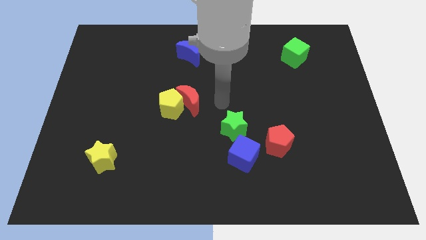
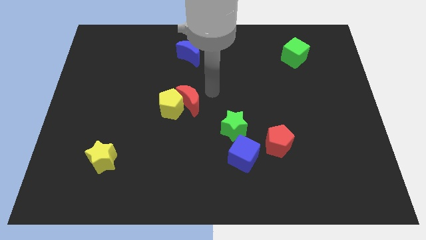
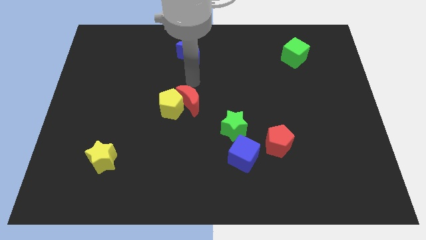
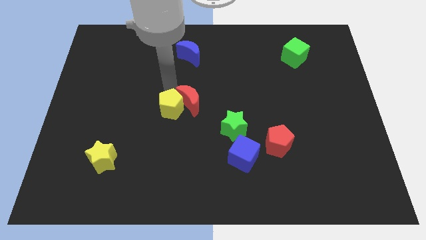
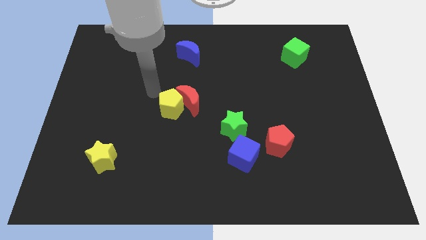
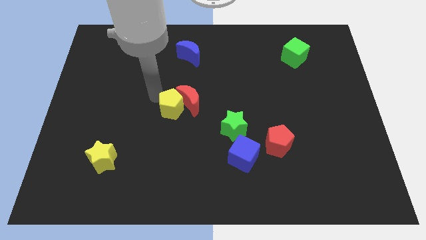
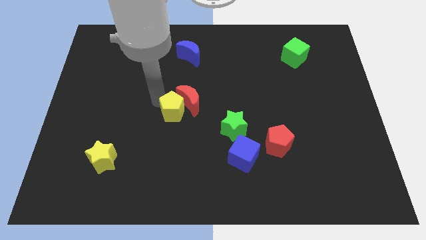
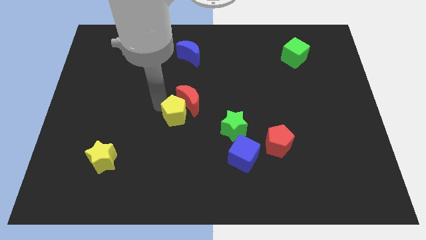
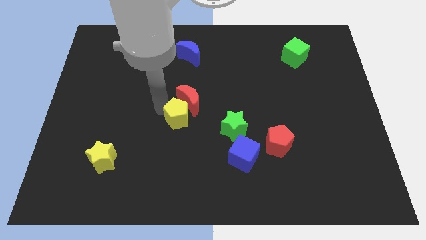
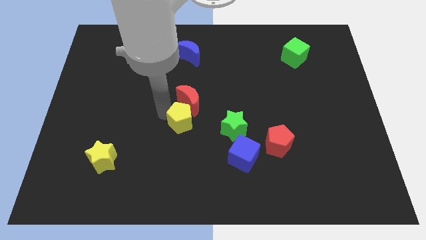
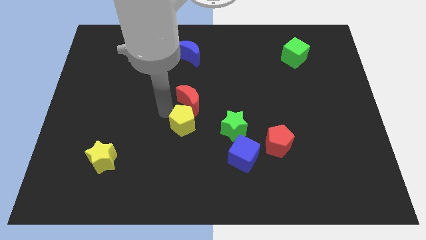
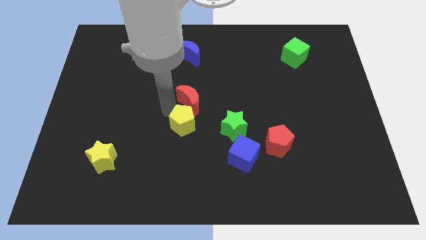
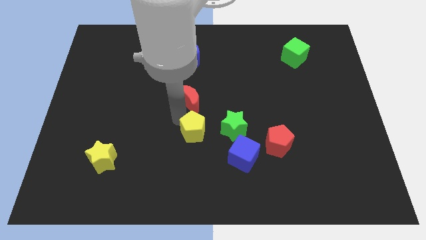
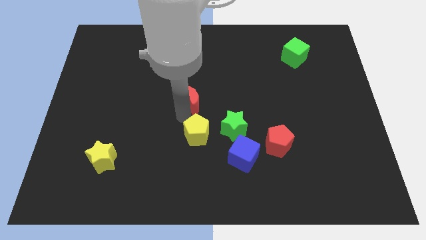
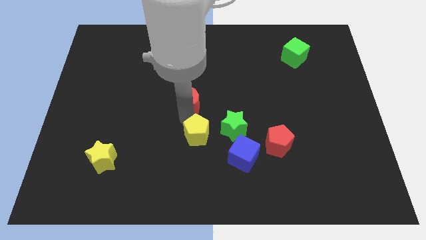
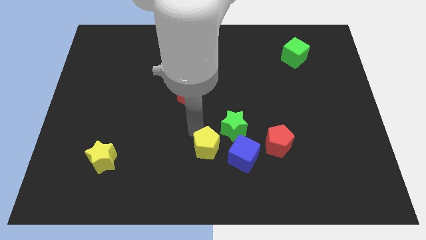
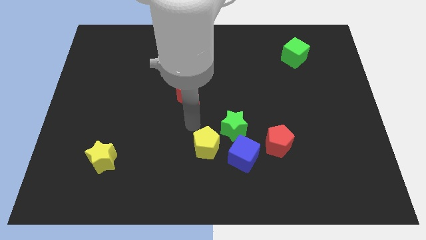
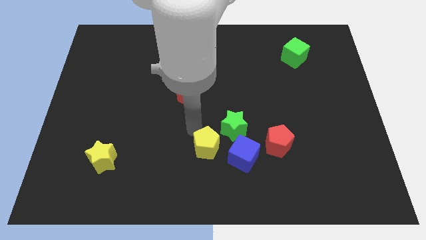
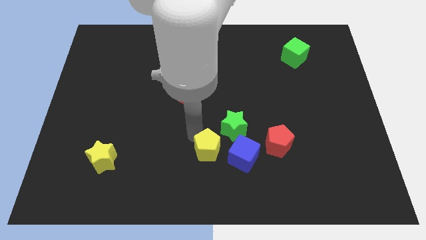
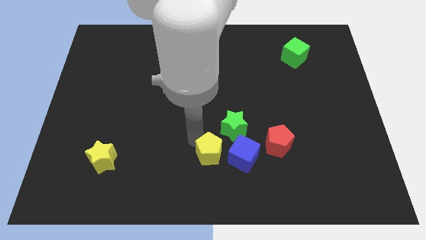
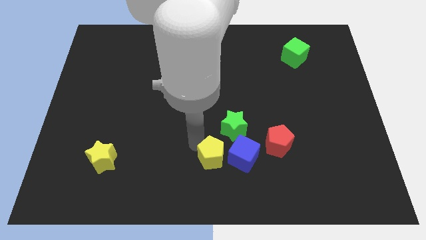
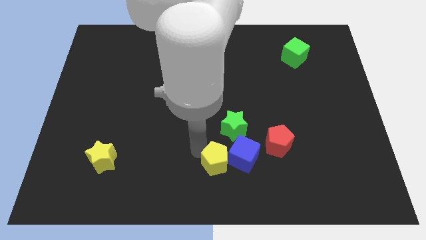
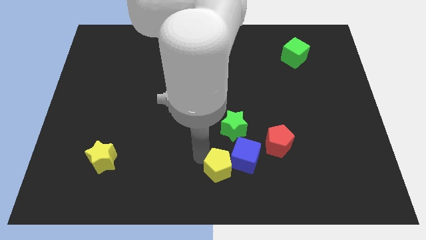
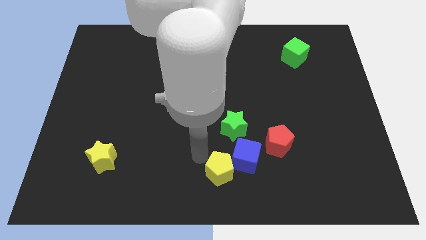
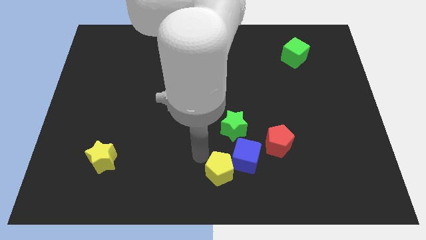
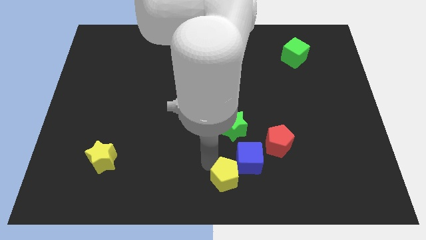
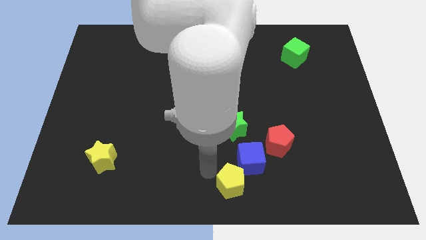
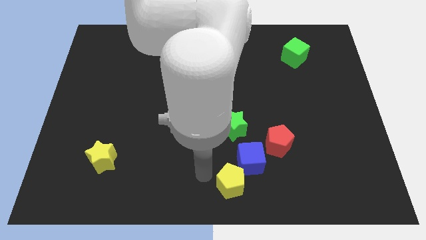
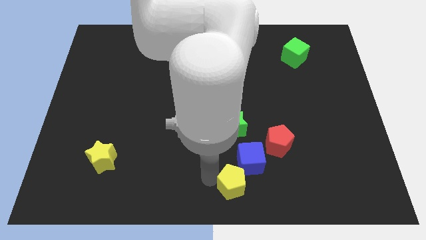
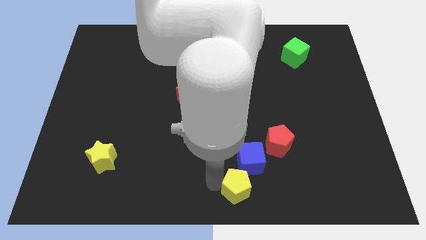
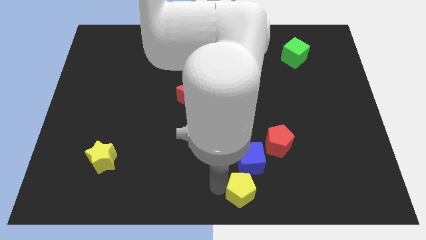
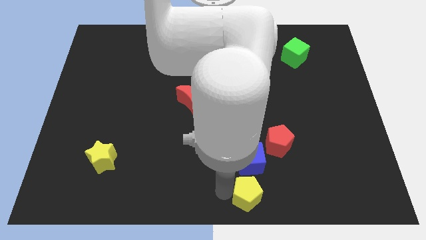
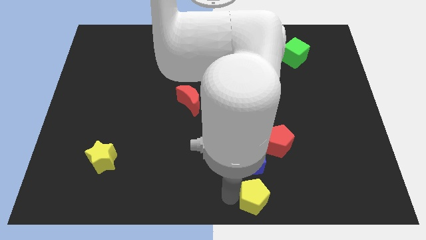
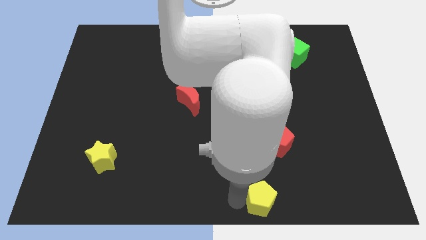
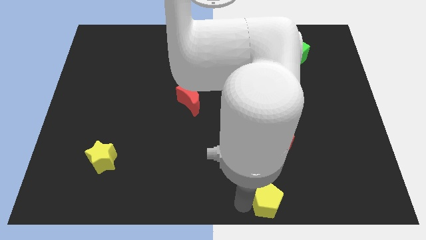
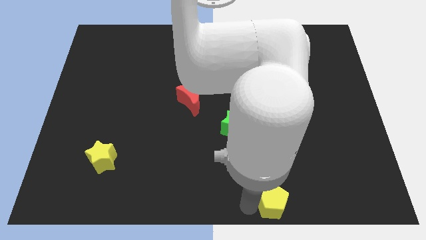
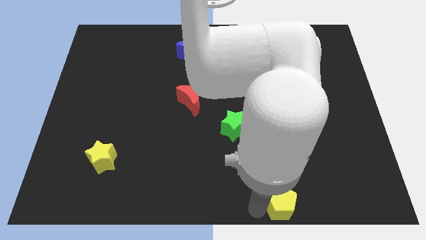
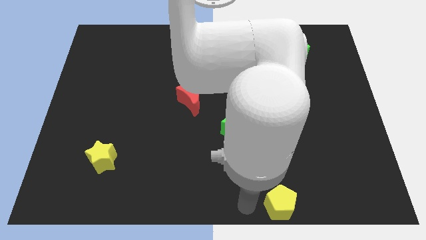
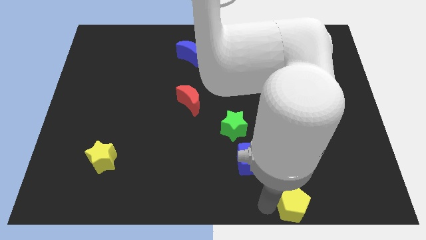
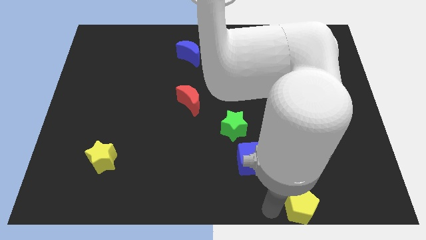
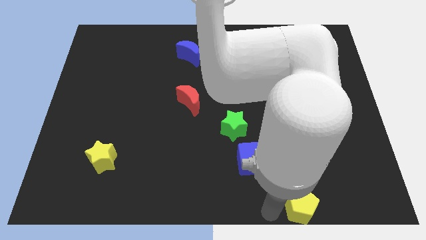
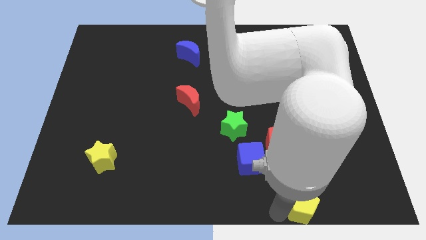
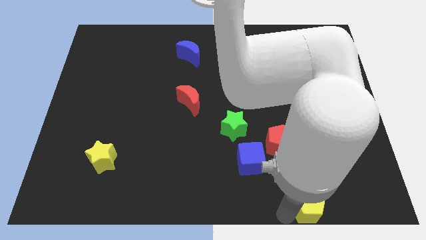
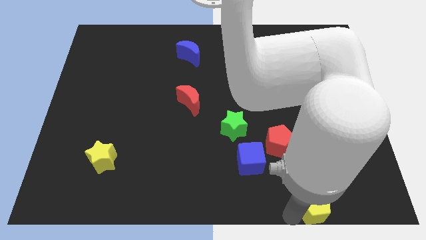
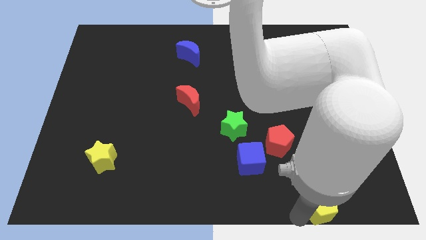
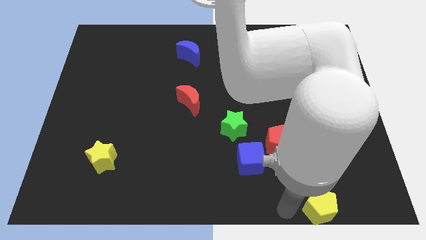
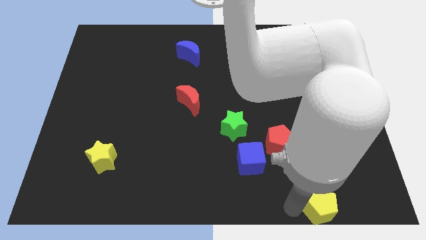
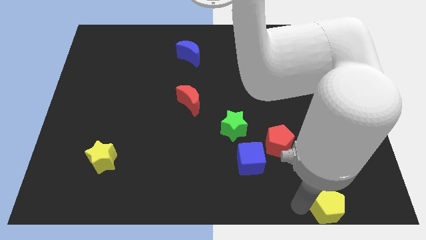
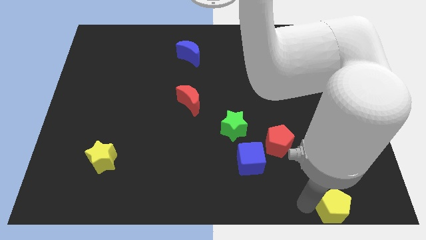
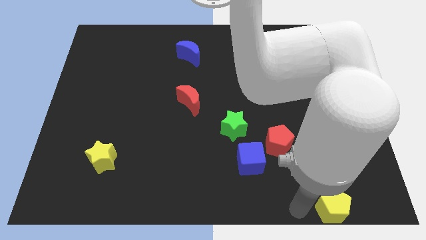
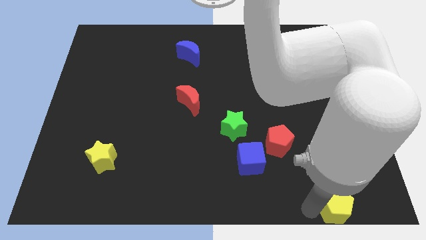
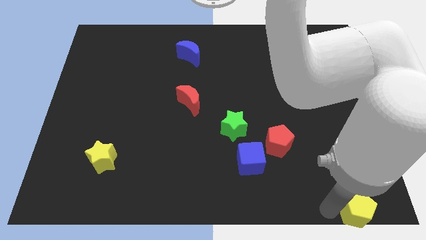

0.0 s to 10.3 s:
put the yellow pentagon to the bottom right corner

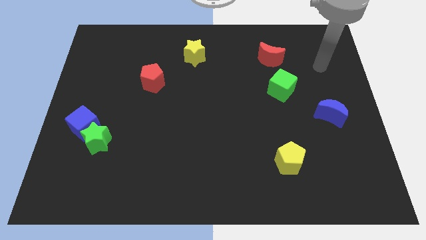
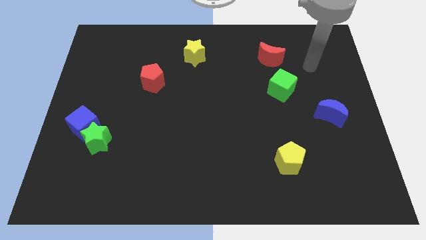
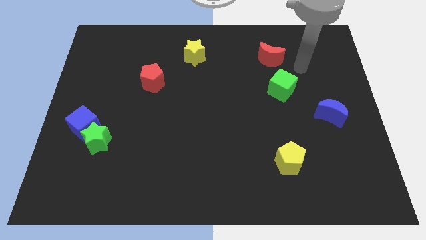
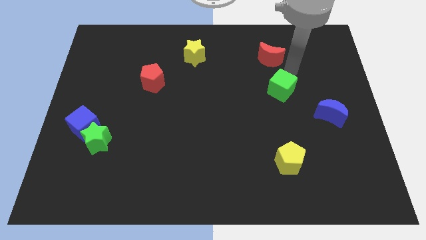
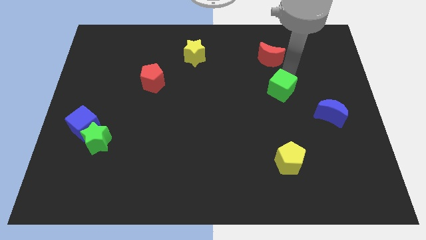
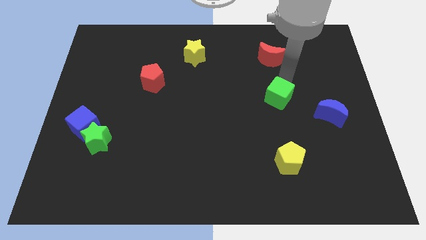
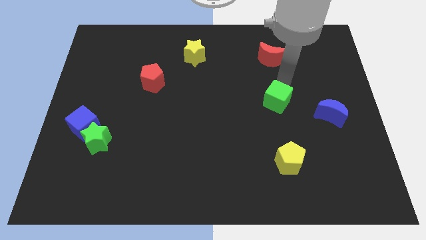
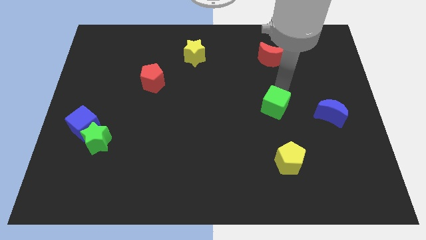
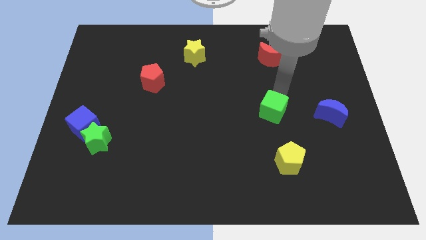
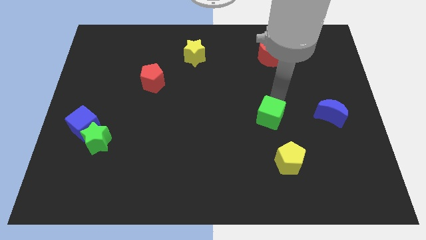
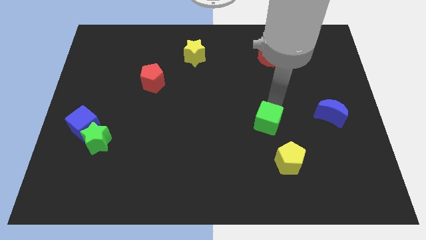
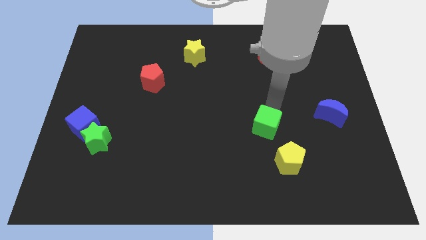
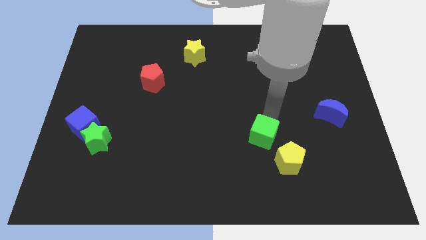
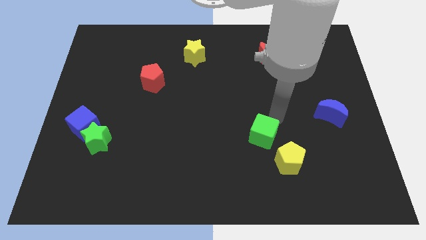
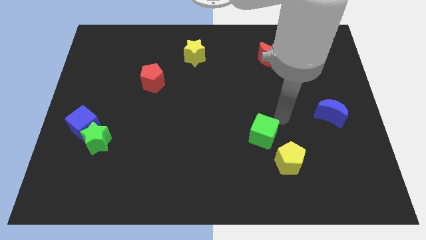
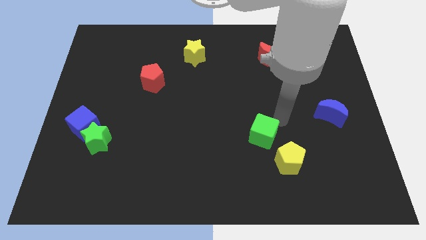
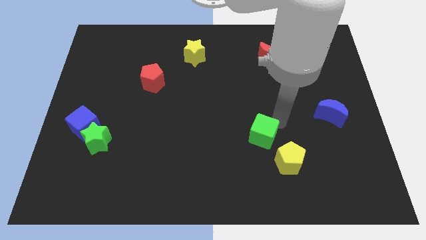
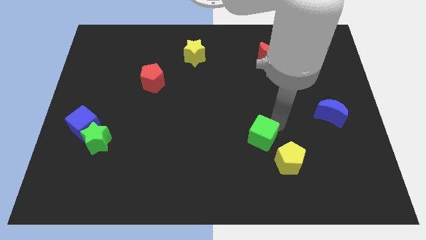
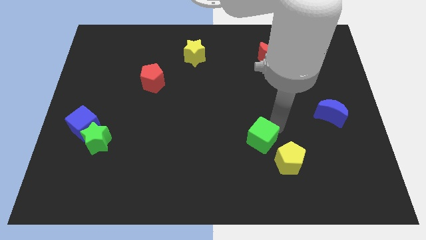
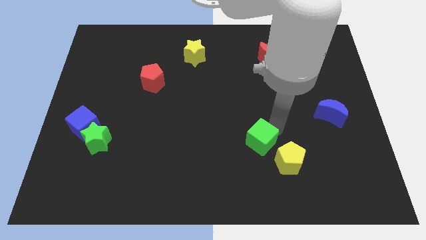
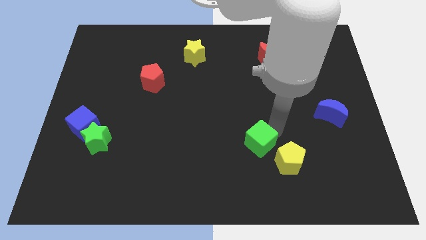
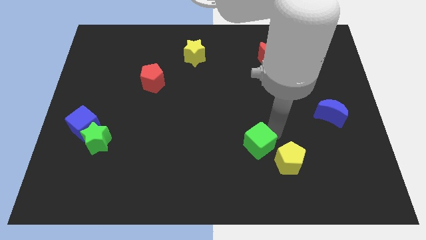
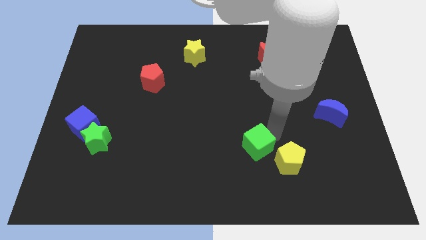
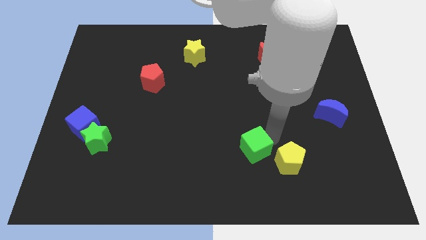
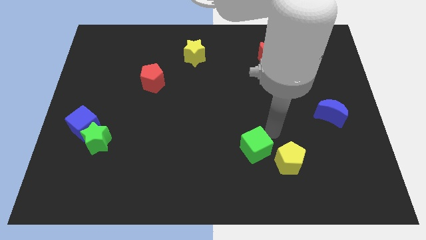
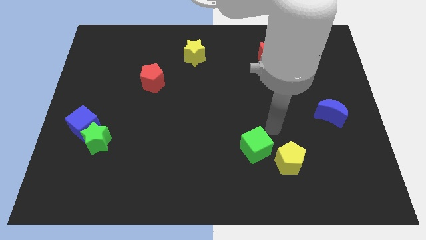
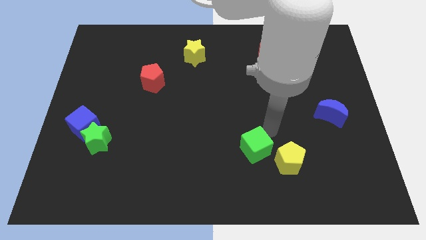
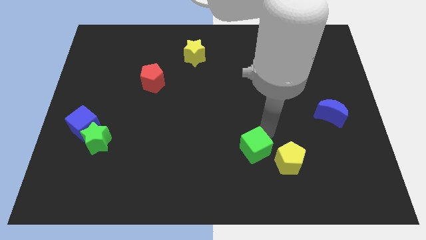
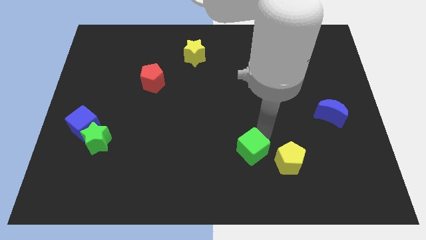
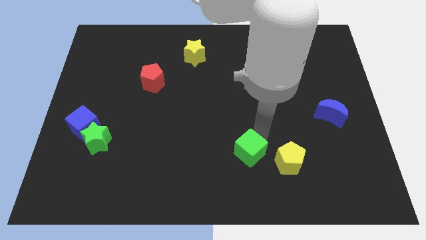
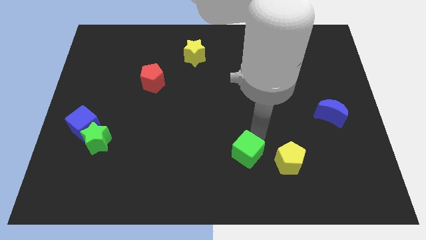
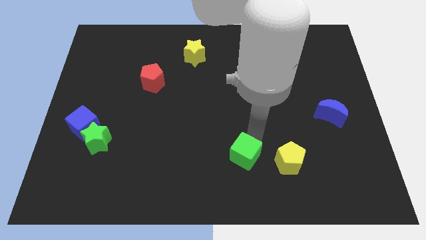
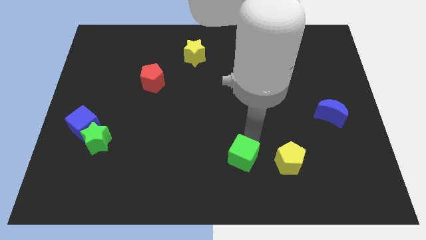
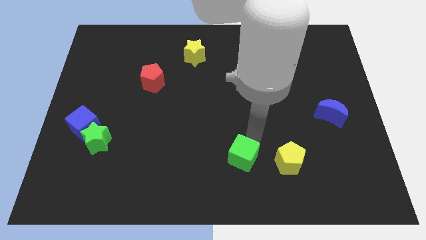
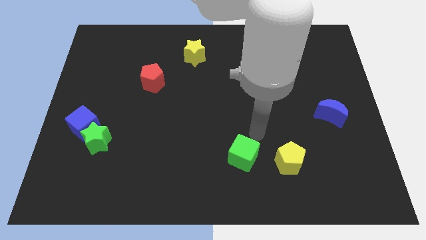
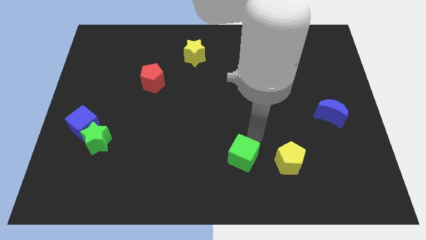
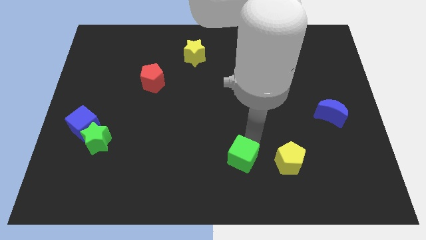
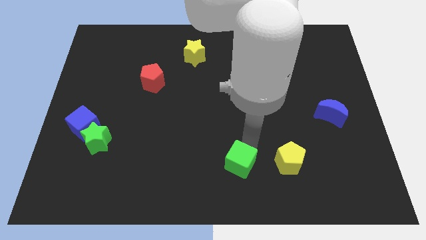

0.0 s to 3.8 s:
put the green cube to the bottom
